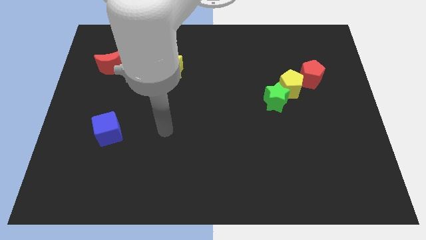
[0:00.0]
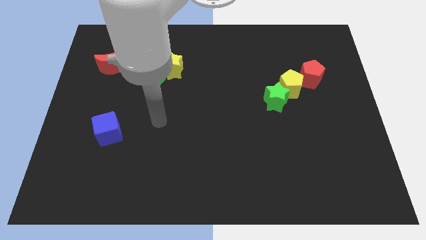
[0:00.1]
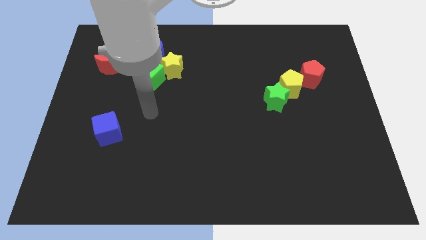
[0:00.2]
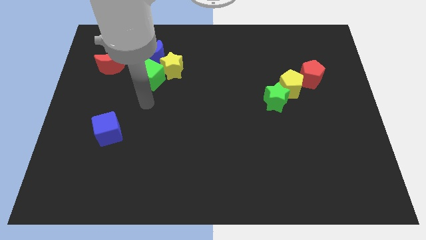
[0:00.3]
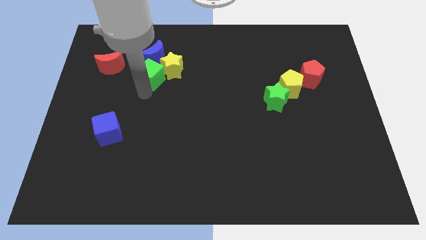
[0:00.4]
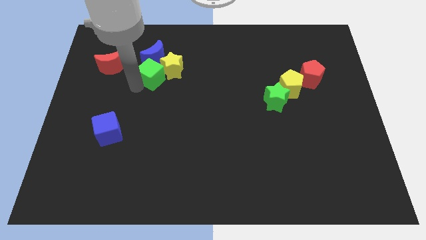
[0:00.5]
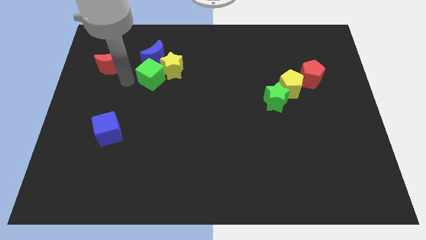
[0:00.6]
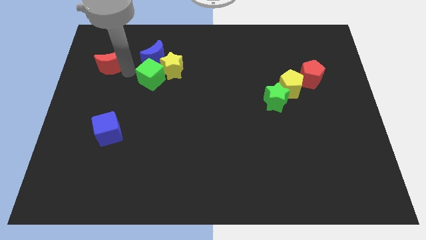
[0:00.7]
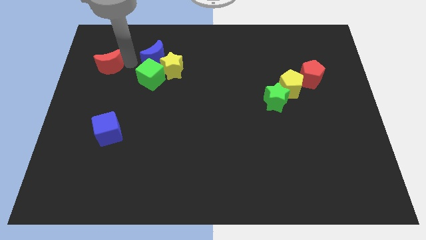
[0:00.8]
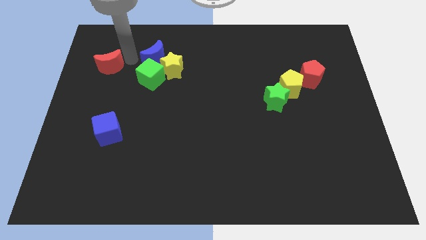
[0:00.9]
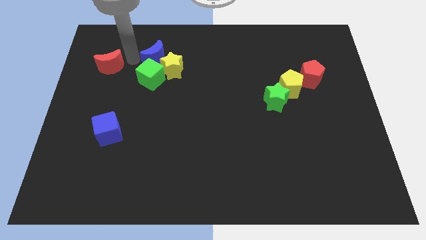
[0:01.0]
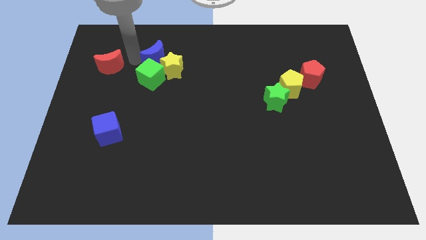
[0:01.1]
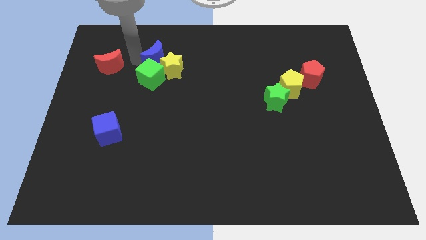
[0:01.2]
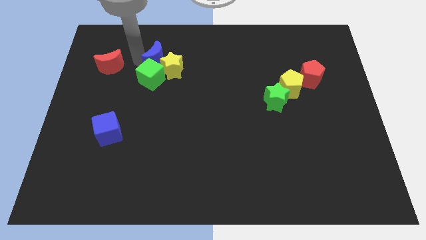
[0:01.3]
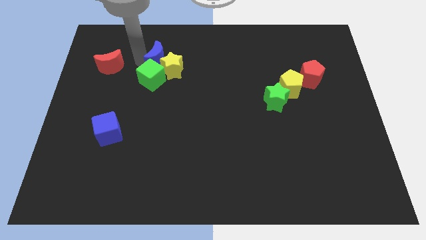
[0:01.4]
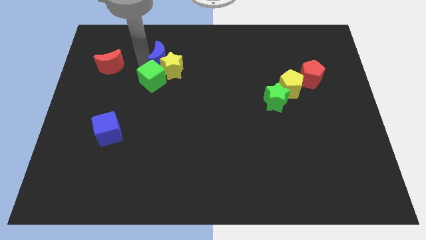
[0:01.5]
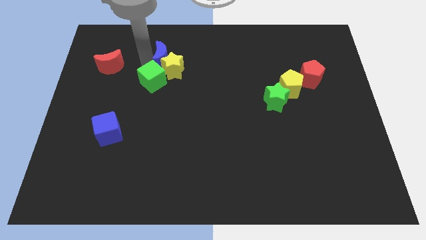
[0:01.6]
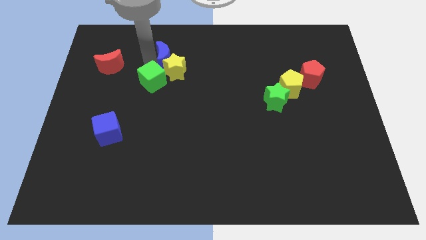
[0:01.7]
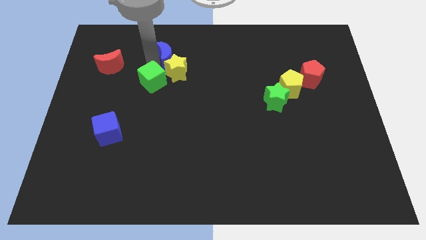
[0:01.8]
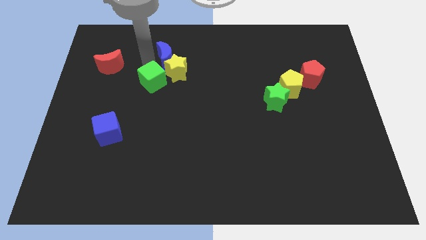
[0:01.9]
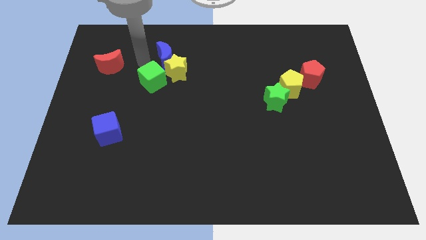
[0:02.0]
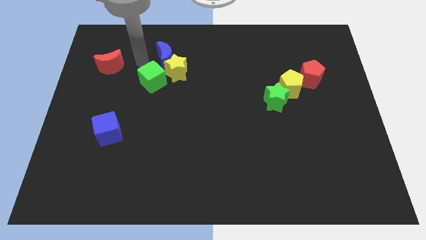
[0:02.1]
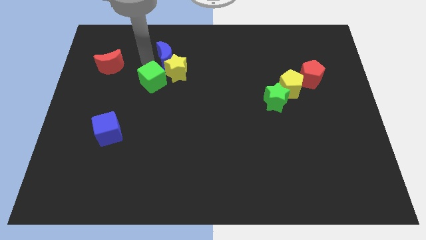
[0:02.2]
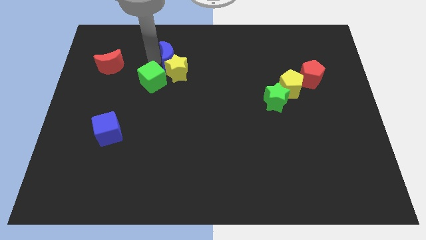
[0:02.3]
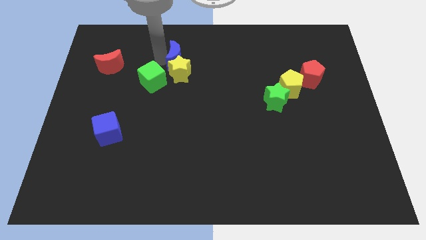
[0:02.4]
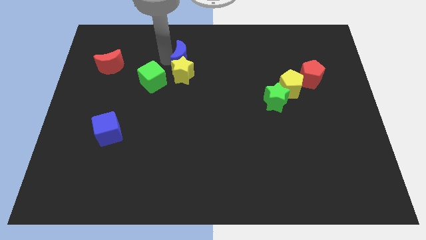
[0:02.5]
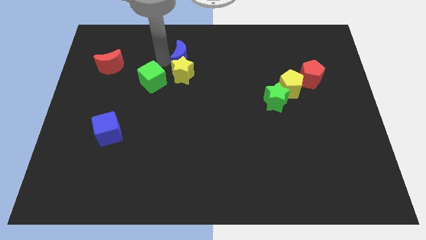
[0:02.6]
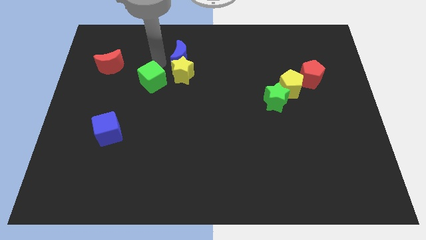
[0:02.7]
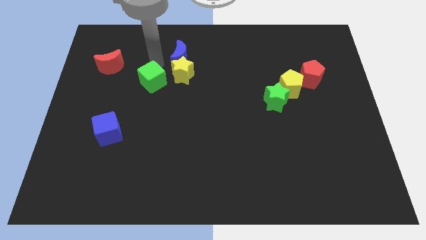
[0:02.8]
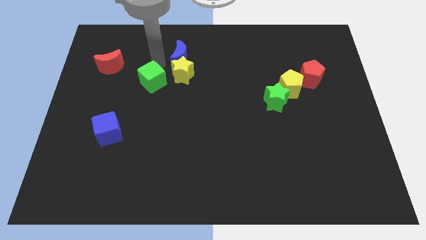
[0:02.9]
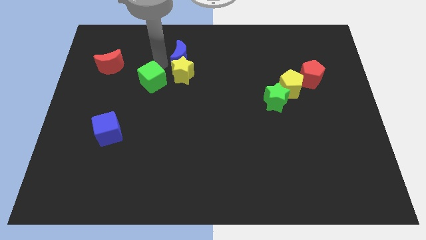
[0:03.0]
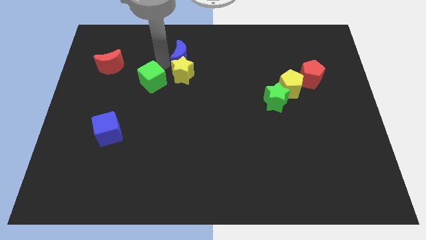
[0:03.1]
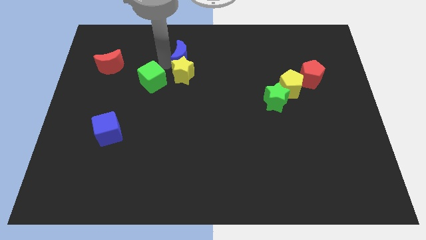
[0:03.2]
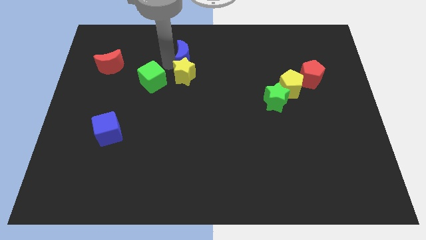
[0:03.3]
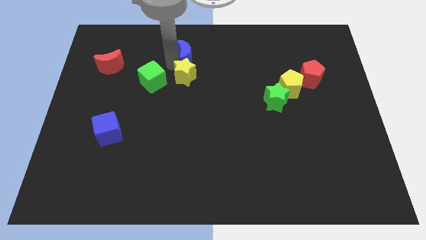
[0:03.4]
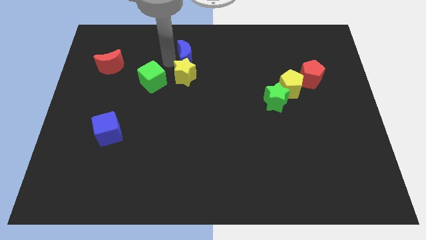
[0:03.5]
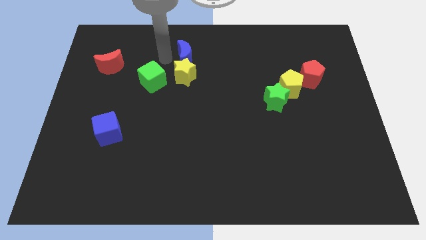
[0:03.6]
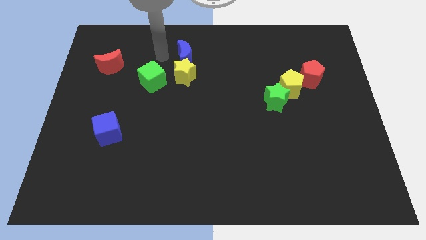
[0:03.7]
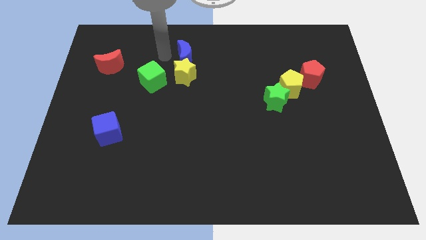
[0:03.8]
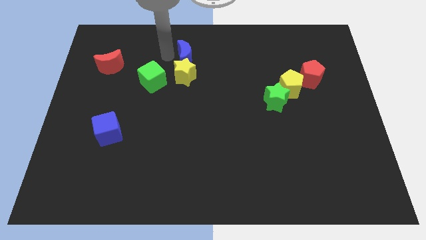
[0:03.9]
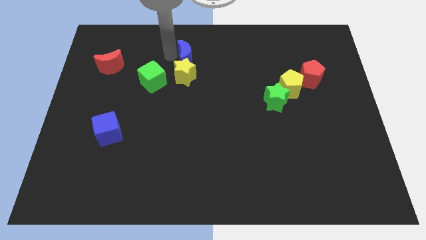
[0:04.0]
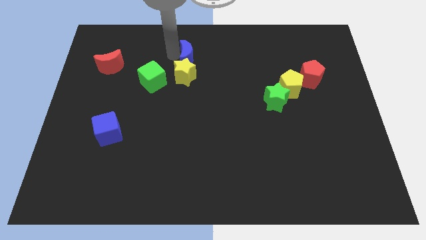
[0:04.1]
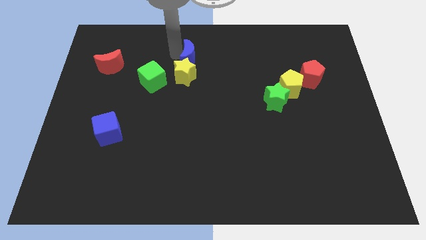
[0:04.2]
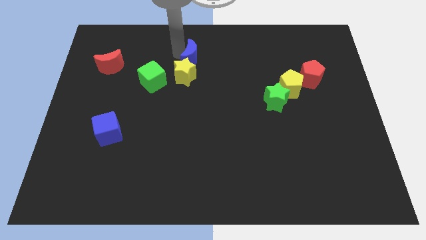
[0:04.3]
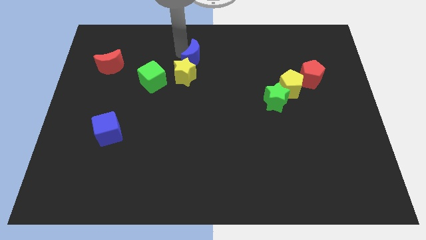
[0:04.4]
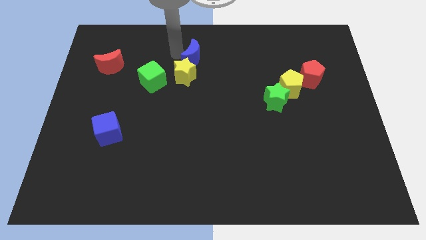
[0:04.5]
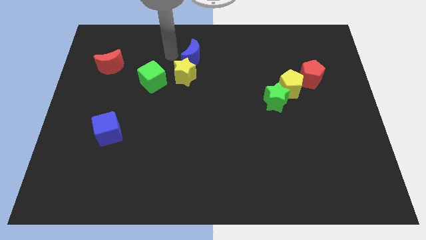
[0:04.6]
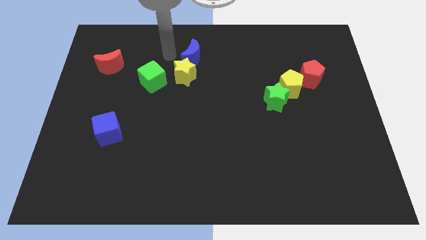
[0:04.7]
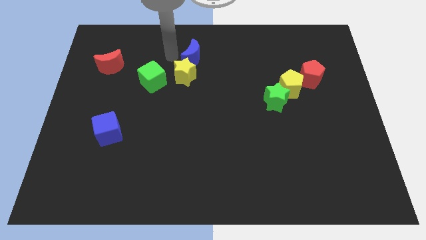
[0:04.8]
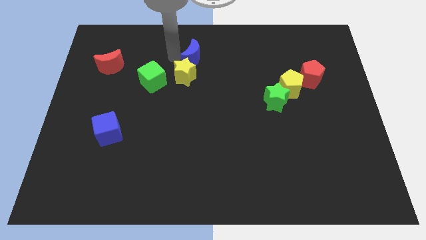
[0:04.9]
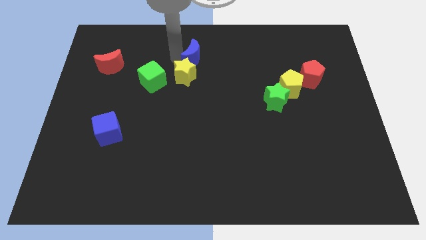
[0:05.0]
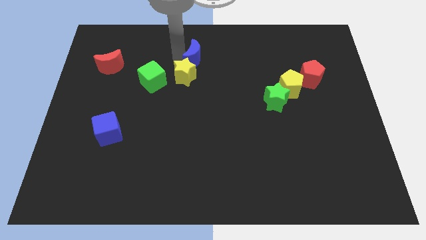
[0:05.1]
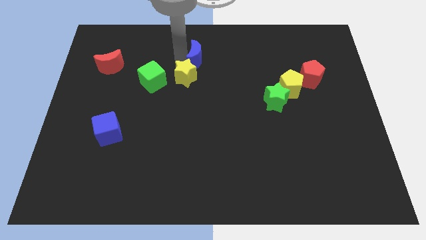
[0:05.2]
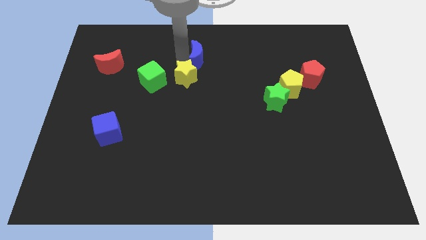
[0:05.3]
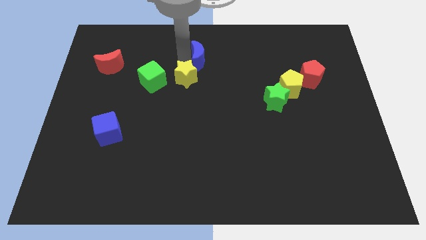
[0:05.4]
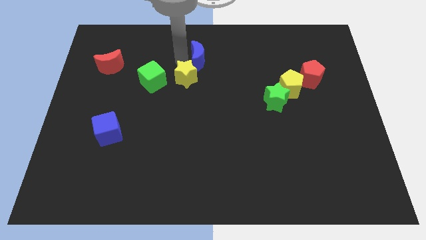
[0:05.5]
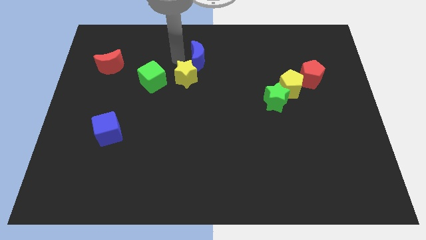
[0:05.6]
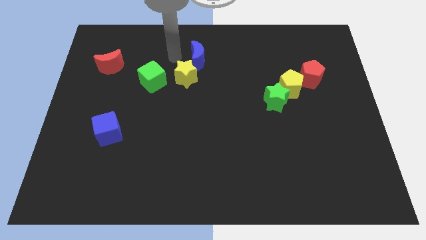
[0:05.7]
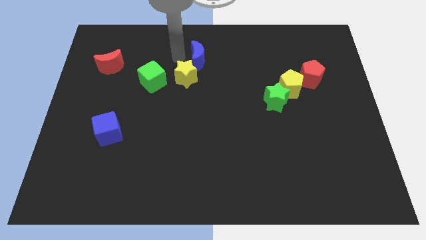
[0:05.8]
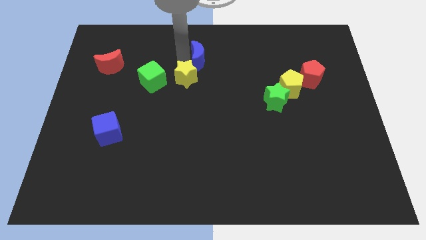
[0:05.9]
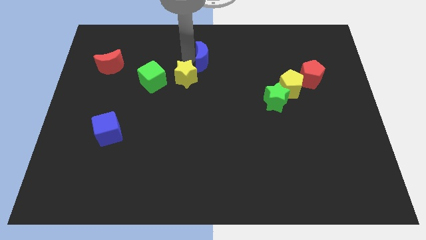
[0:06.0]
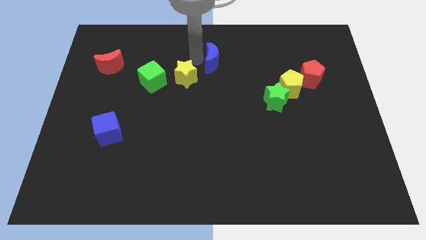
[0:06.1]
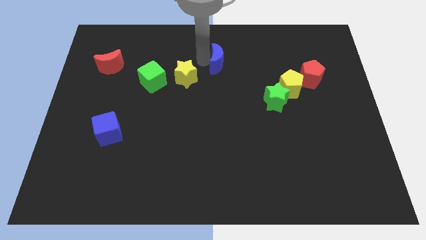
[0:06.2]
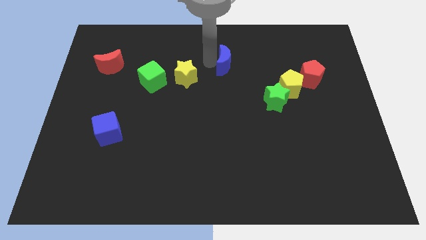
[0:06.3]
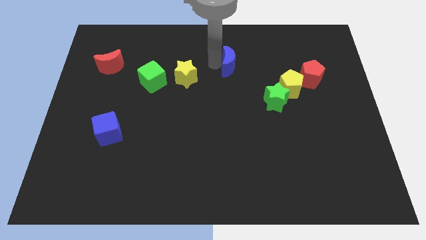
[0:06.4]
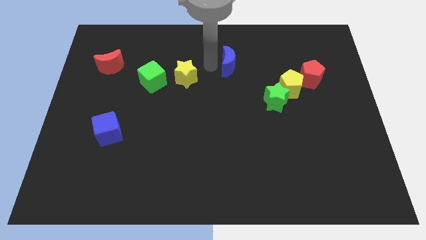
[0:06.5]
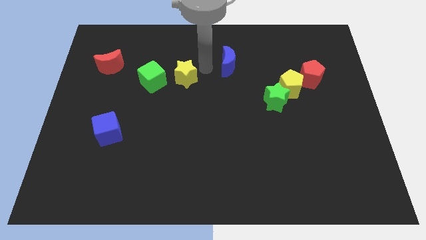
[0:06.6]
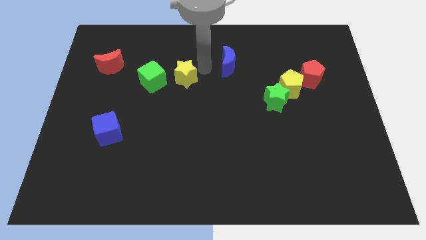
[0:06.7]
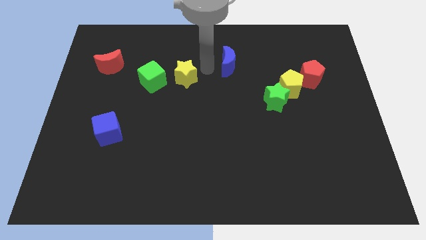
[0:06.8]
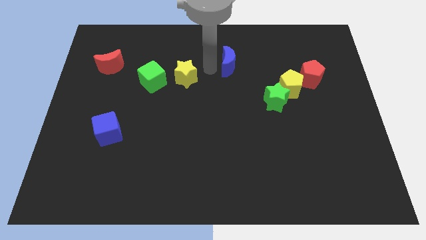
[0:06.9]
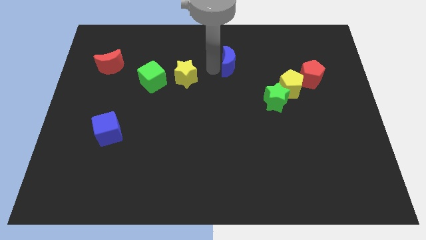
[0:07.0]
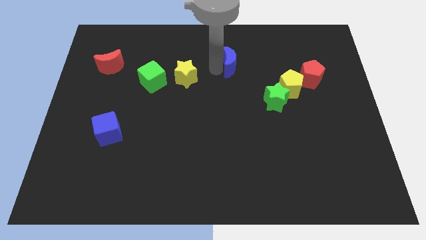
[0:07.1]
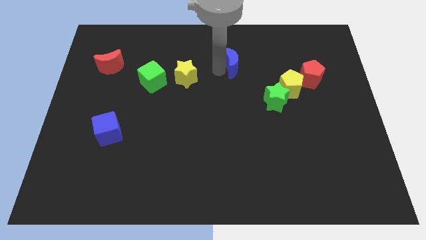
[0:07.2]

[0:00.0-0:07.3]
slide the blue moon right

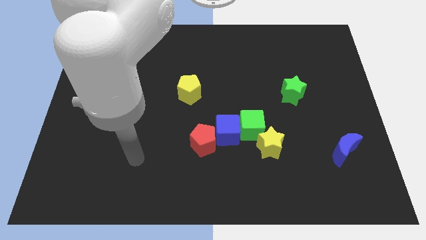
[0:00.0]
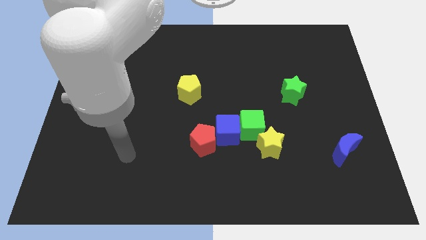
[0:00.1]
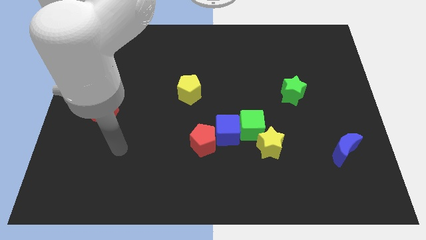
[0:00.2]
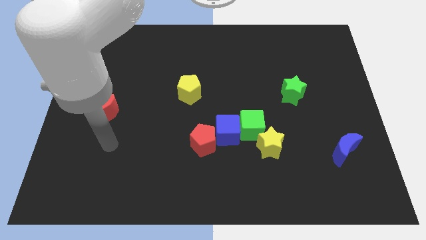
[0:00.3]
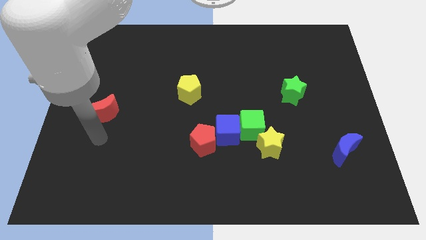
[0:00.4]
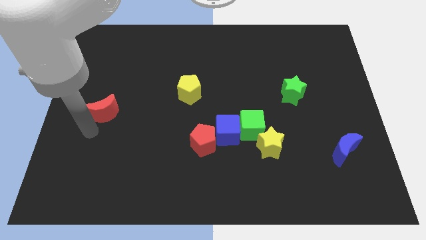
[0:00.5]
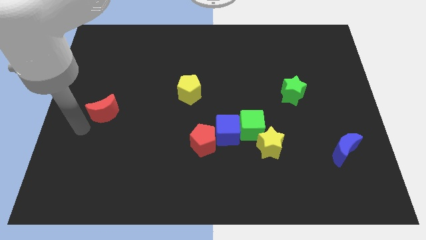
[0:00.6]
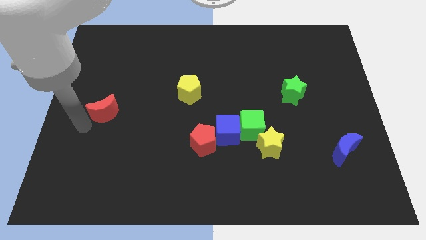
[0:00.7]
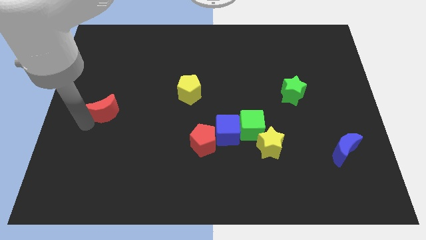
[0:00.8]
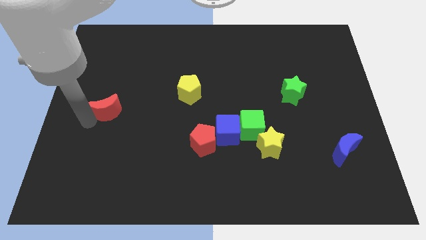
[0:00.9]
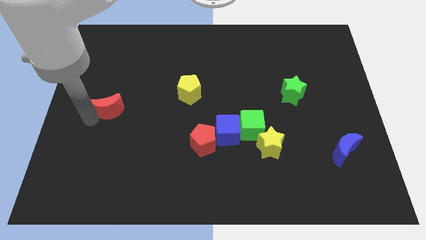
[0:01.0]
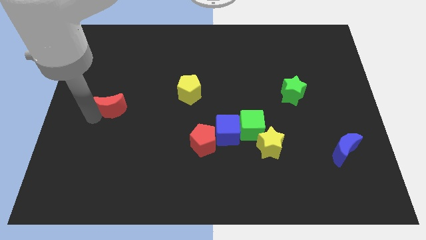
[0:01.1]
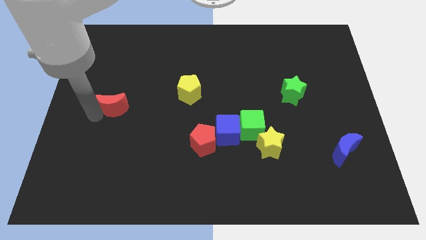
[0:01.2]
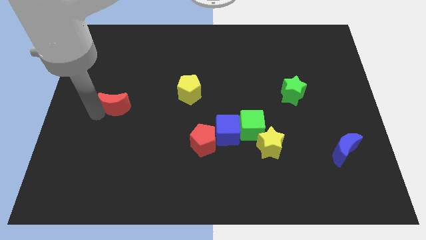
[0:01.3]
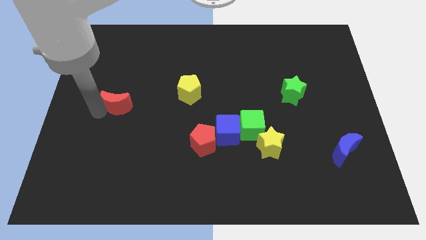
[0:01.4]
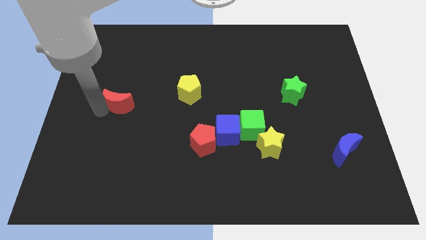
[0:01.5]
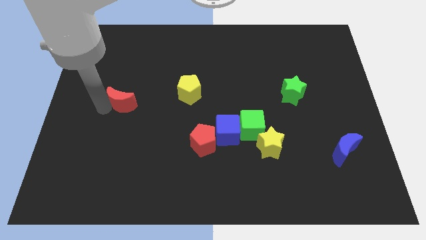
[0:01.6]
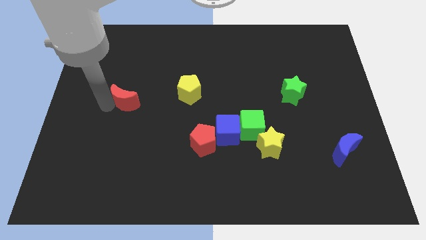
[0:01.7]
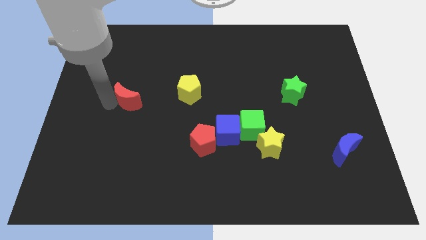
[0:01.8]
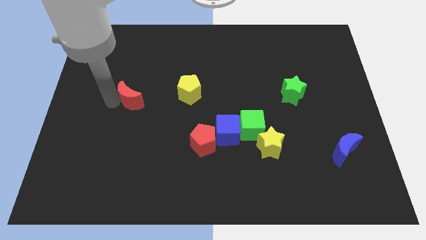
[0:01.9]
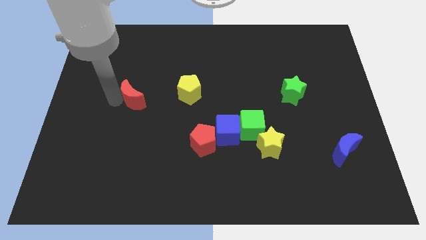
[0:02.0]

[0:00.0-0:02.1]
slide the red moon up and right a little
